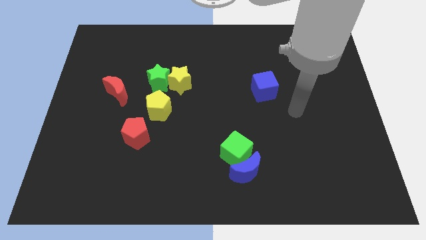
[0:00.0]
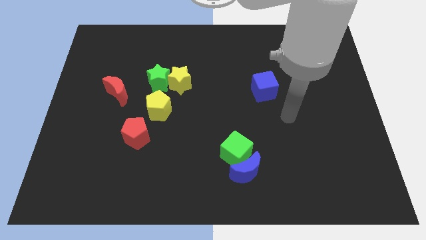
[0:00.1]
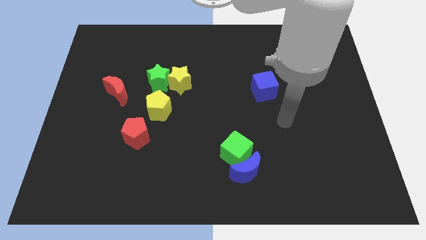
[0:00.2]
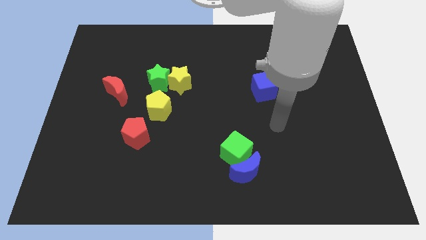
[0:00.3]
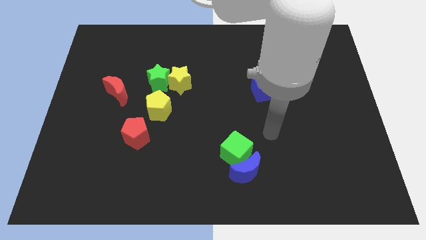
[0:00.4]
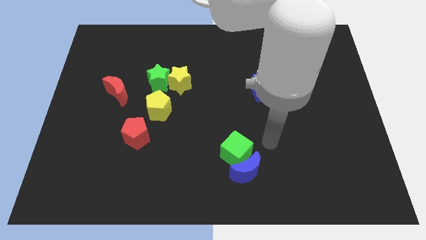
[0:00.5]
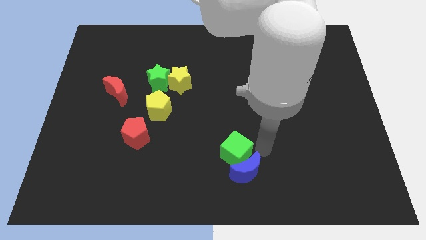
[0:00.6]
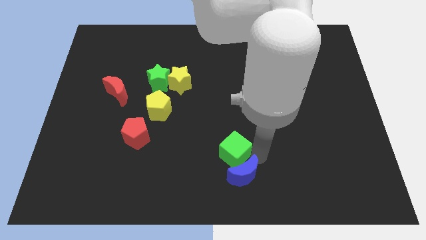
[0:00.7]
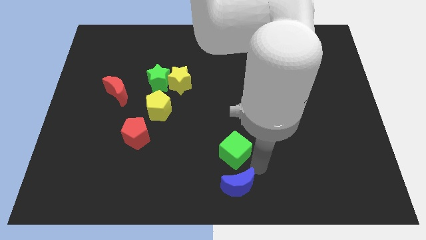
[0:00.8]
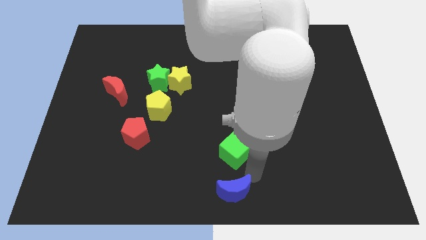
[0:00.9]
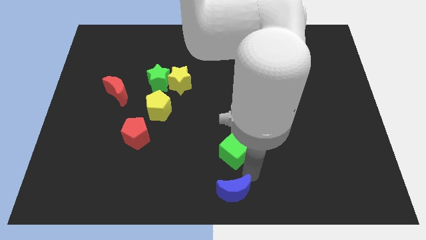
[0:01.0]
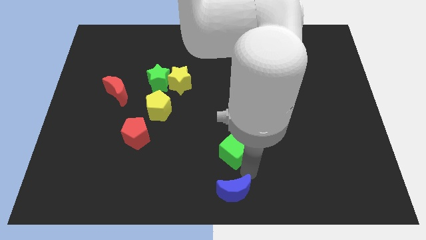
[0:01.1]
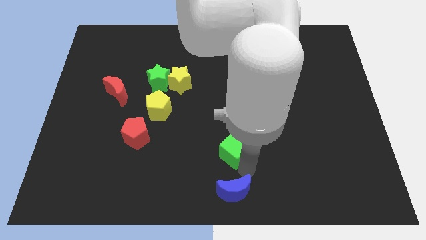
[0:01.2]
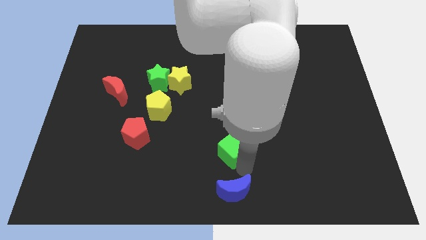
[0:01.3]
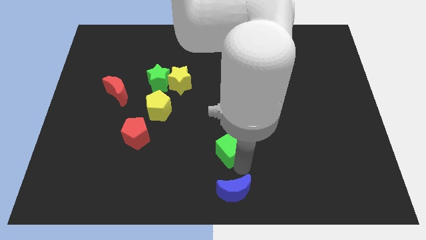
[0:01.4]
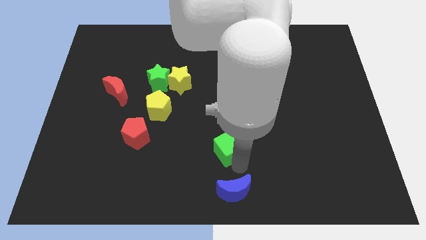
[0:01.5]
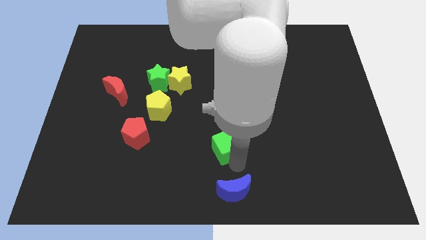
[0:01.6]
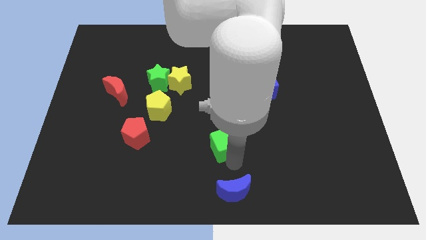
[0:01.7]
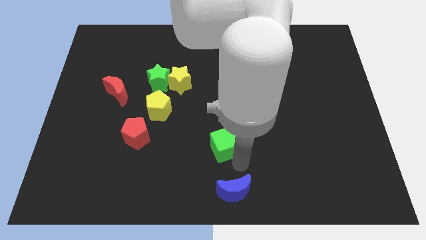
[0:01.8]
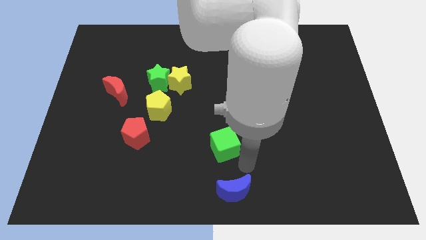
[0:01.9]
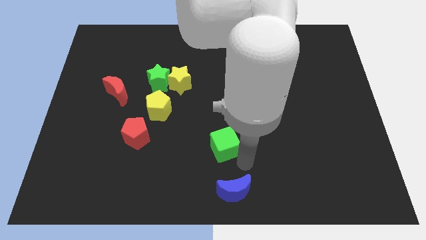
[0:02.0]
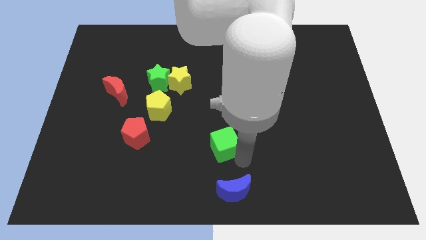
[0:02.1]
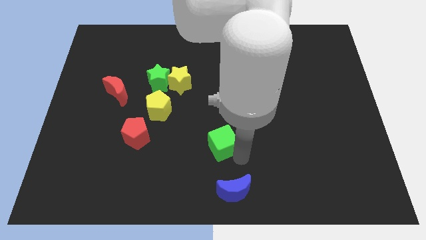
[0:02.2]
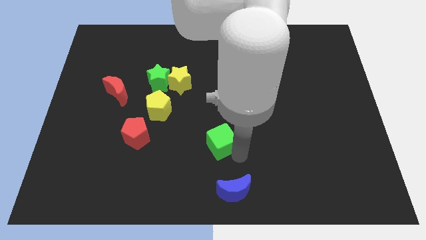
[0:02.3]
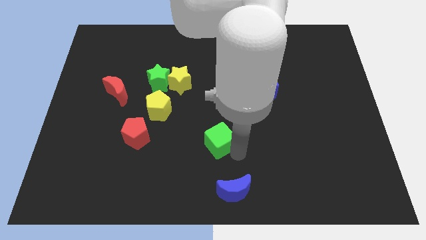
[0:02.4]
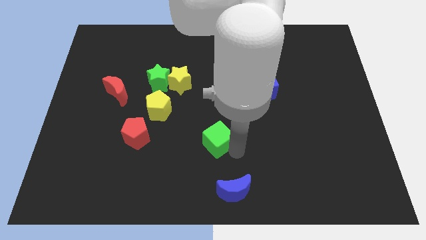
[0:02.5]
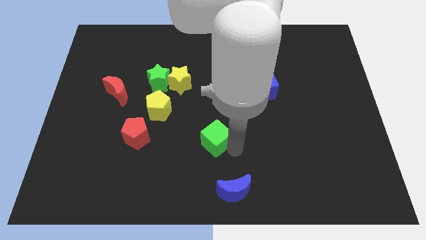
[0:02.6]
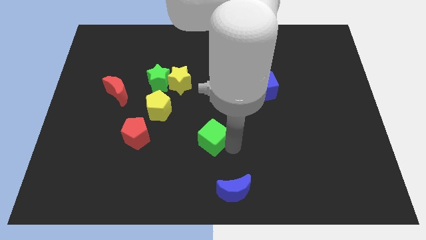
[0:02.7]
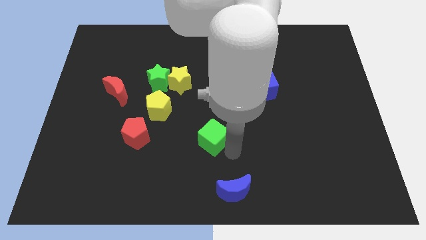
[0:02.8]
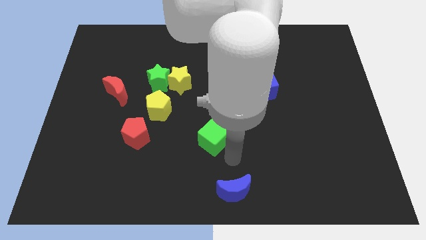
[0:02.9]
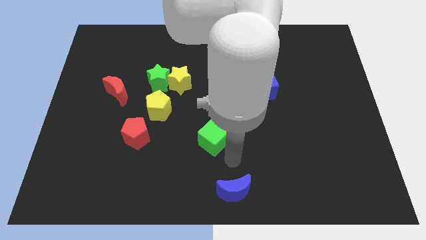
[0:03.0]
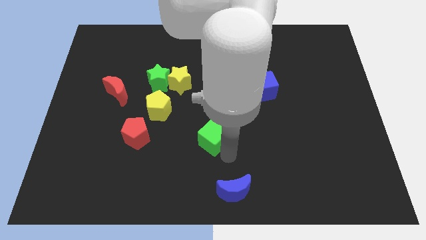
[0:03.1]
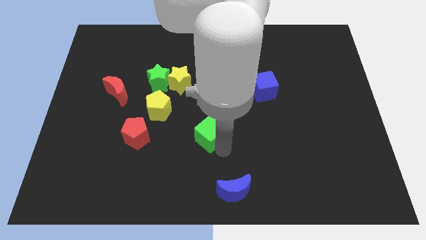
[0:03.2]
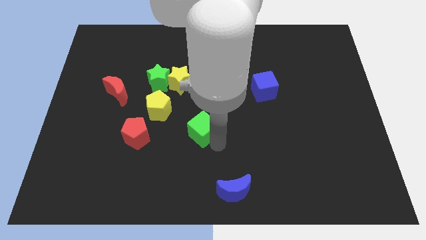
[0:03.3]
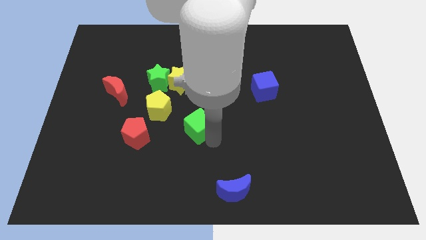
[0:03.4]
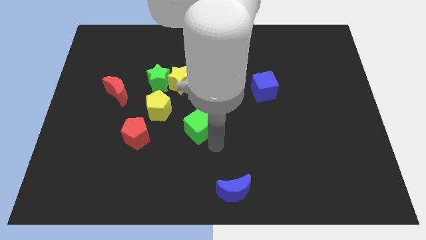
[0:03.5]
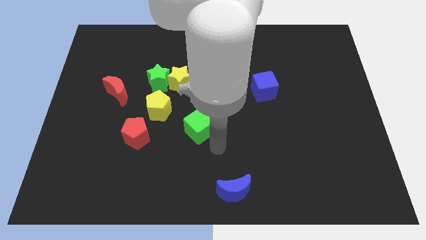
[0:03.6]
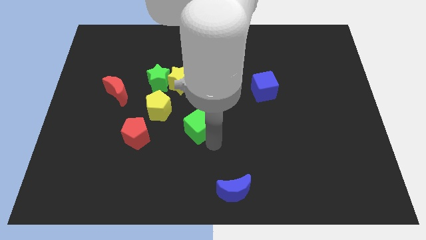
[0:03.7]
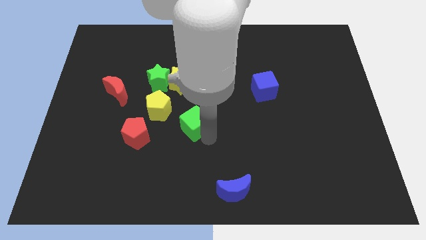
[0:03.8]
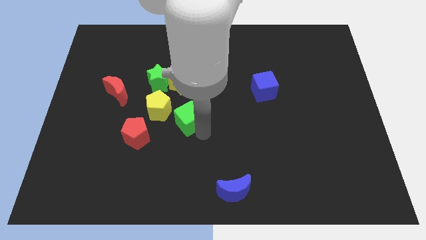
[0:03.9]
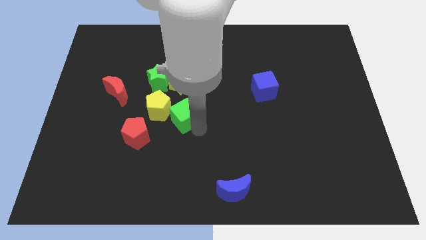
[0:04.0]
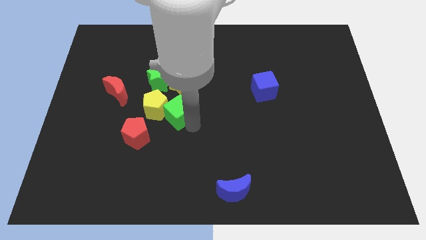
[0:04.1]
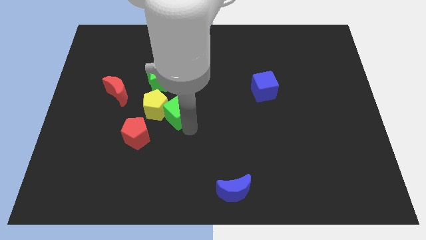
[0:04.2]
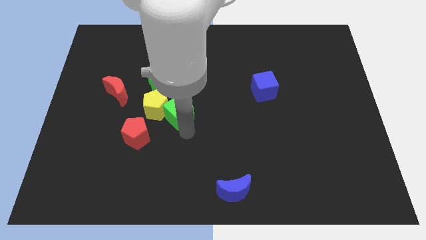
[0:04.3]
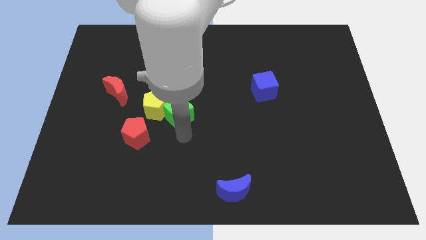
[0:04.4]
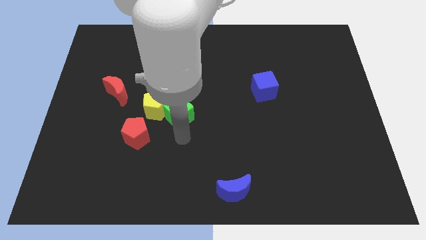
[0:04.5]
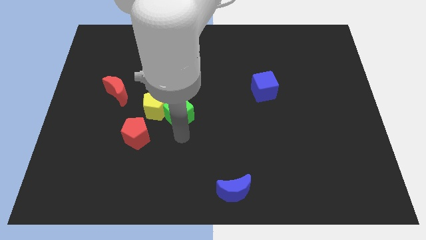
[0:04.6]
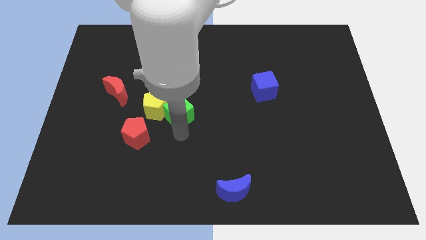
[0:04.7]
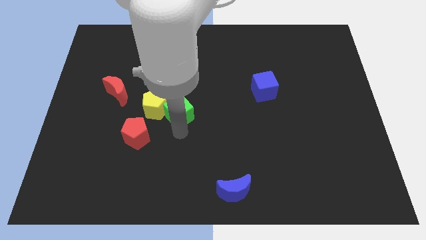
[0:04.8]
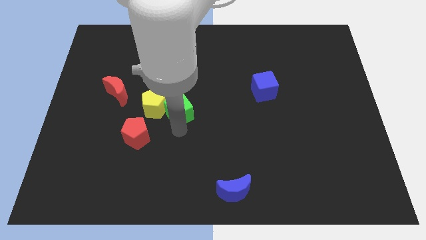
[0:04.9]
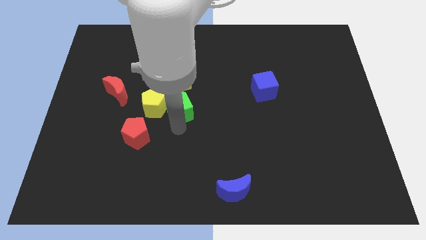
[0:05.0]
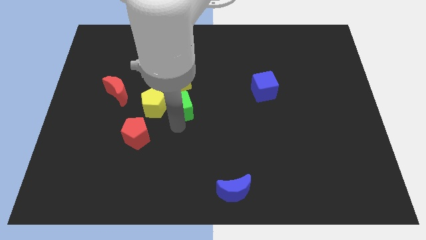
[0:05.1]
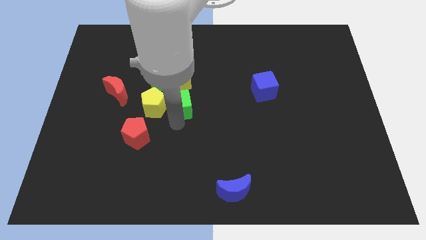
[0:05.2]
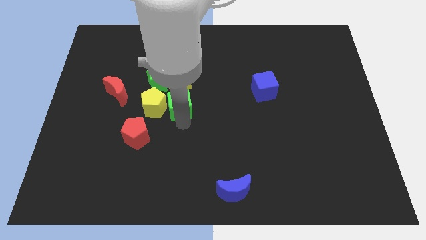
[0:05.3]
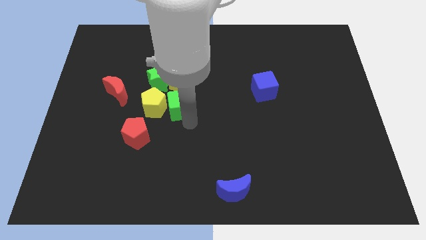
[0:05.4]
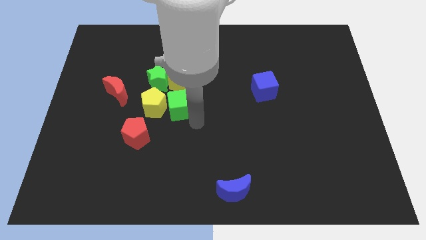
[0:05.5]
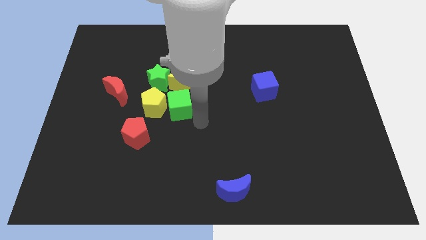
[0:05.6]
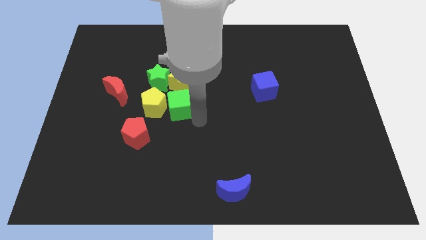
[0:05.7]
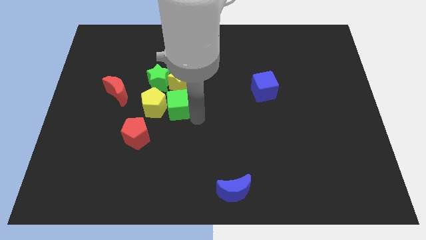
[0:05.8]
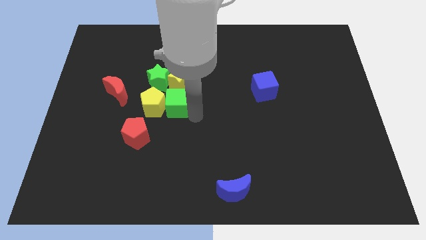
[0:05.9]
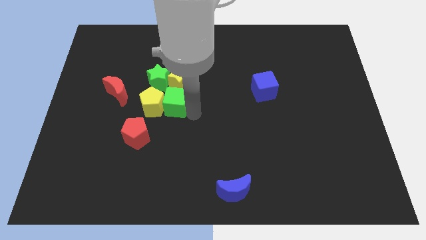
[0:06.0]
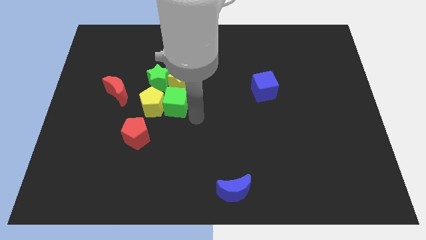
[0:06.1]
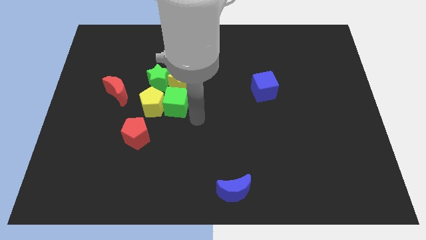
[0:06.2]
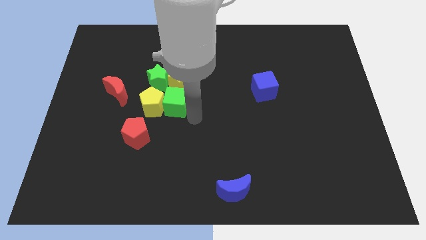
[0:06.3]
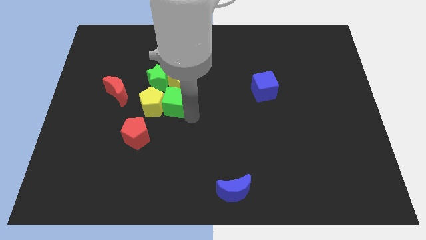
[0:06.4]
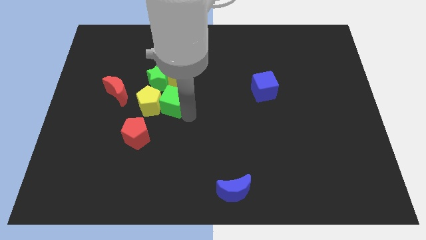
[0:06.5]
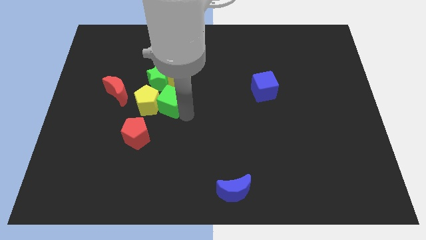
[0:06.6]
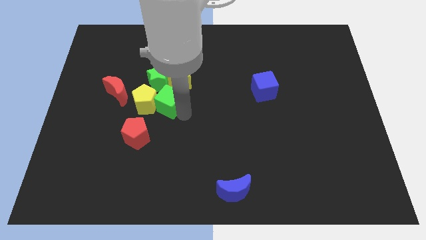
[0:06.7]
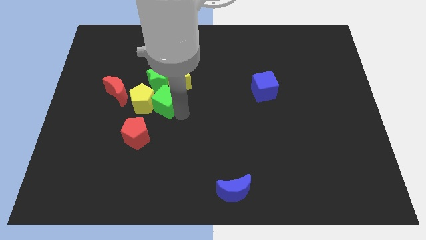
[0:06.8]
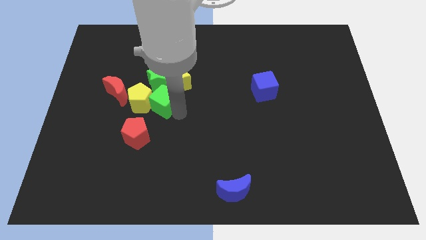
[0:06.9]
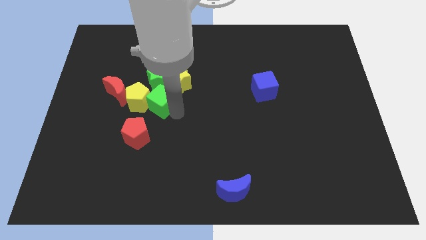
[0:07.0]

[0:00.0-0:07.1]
push the green cube to the top of the red pentagon

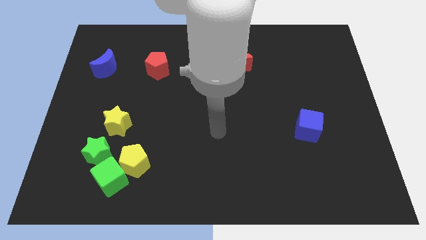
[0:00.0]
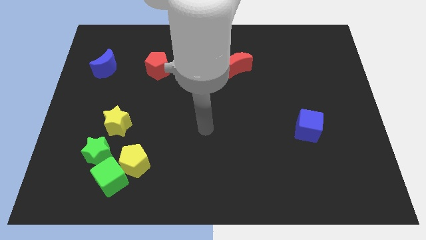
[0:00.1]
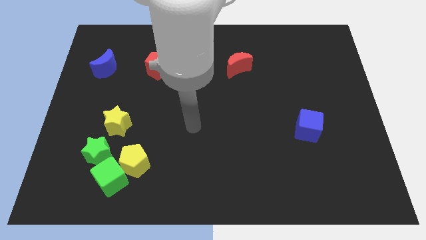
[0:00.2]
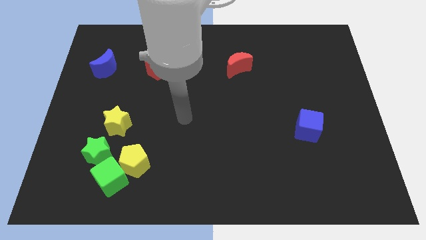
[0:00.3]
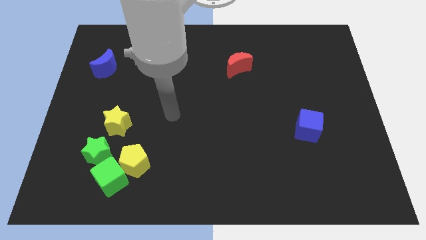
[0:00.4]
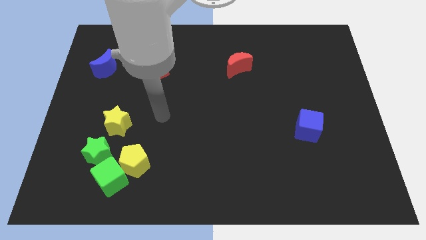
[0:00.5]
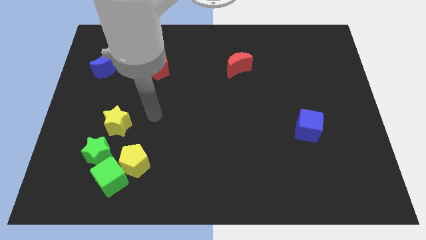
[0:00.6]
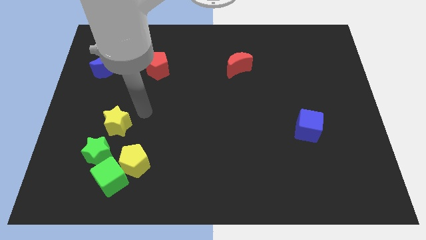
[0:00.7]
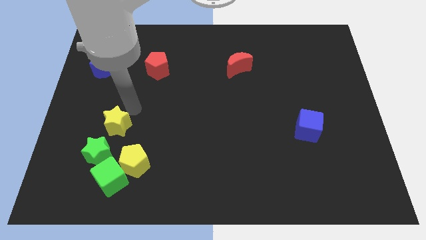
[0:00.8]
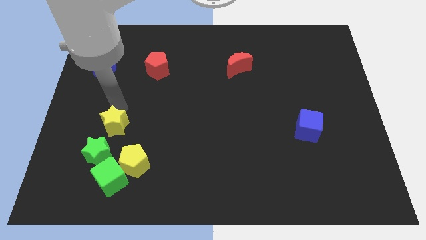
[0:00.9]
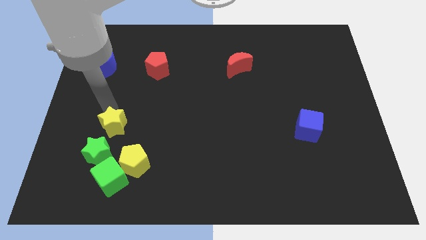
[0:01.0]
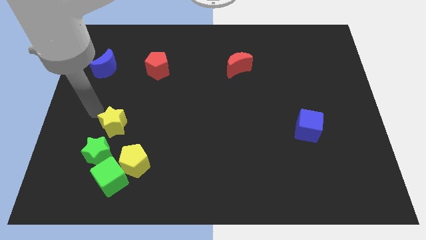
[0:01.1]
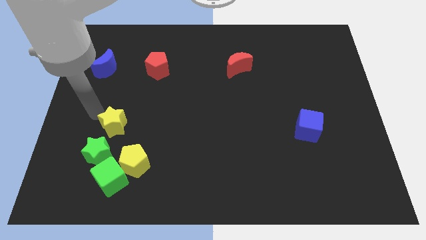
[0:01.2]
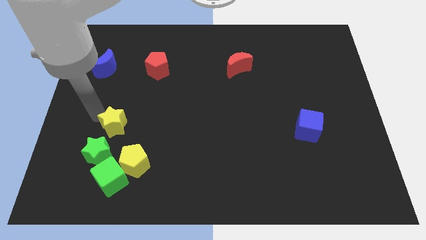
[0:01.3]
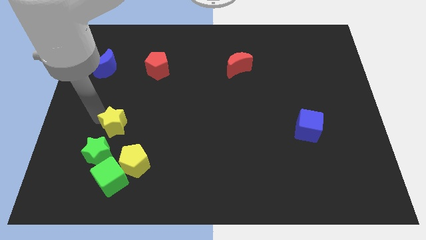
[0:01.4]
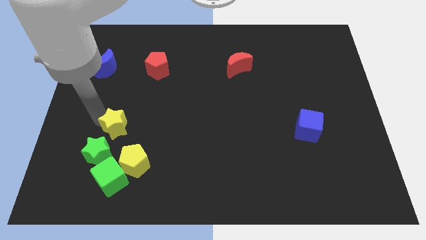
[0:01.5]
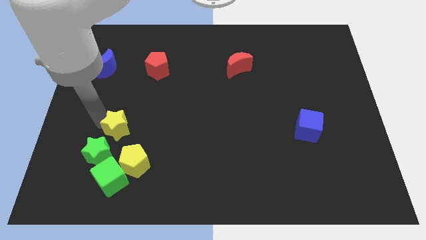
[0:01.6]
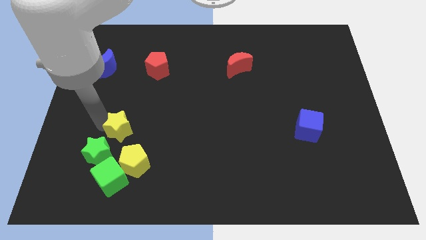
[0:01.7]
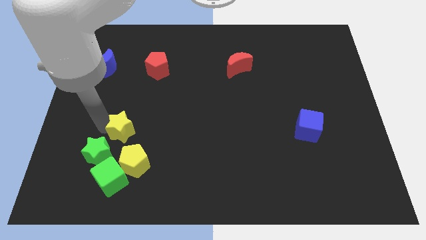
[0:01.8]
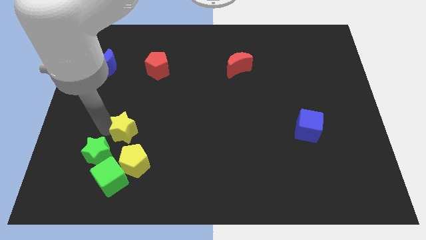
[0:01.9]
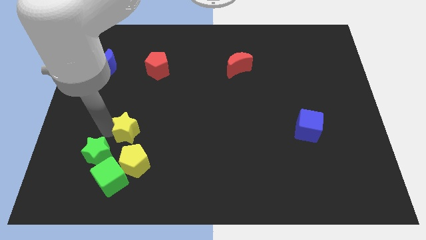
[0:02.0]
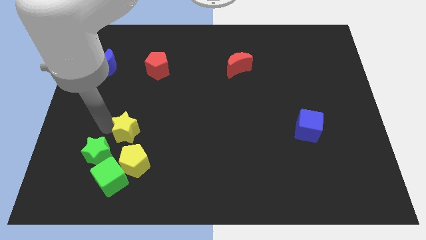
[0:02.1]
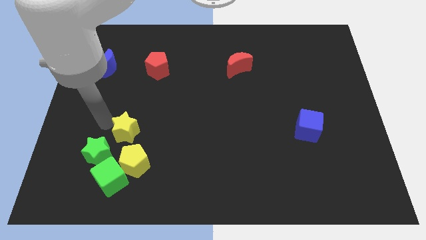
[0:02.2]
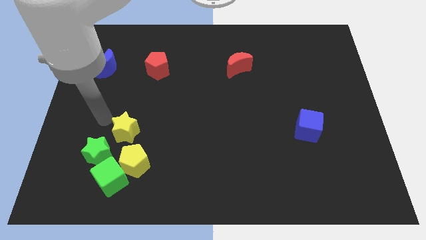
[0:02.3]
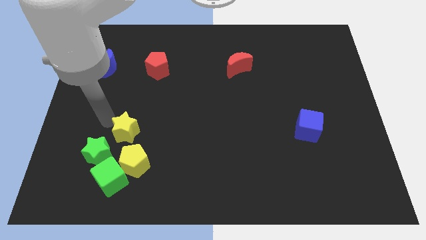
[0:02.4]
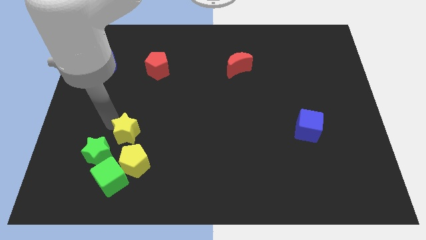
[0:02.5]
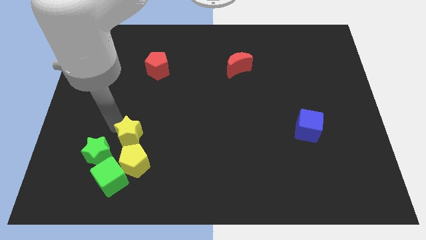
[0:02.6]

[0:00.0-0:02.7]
move the yellow star to the right of the green star
